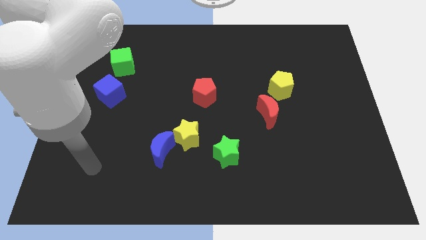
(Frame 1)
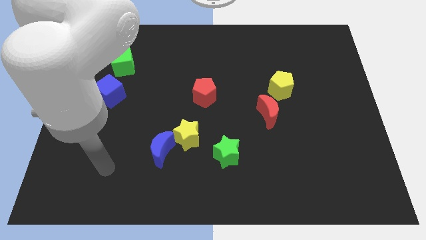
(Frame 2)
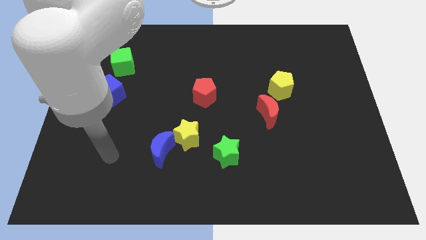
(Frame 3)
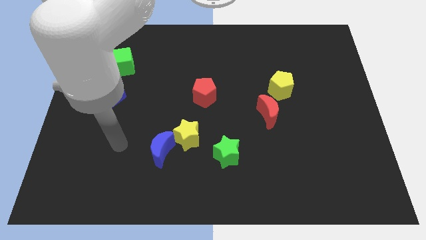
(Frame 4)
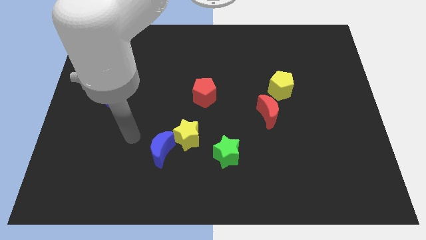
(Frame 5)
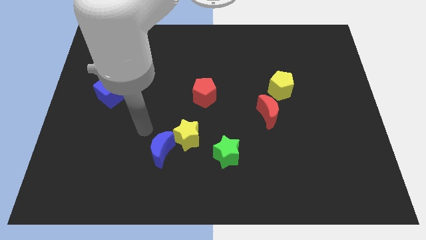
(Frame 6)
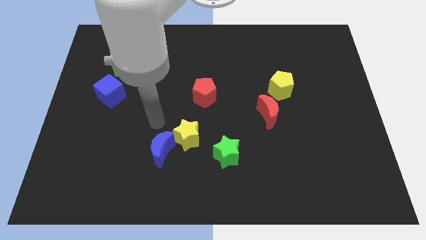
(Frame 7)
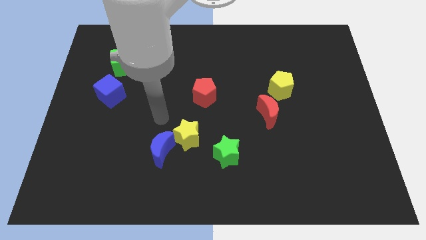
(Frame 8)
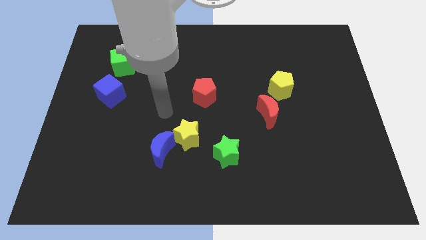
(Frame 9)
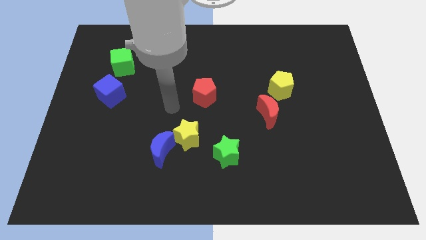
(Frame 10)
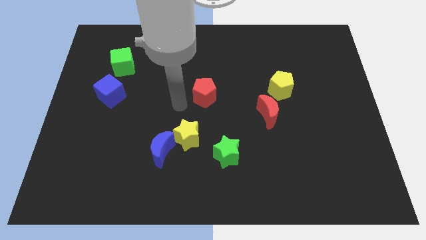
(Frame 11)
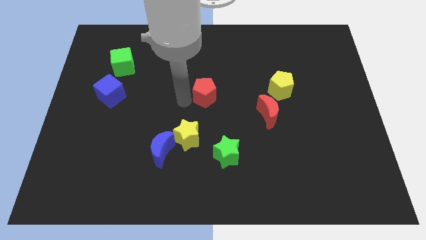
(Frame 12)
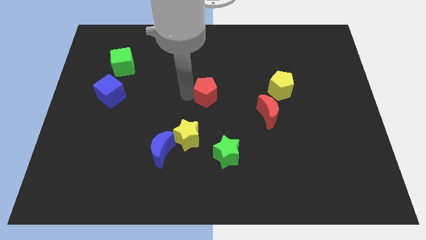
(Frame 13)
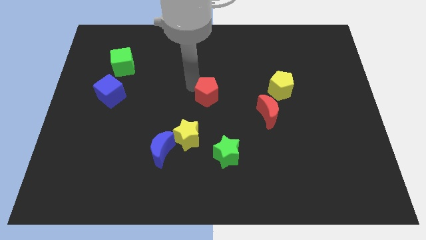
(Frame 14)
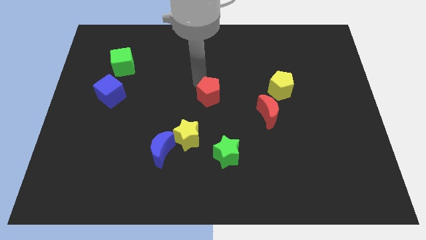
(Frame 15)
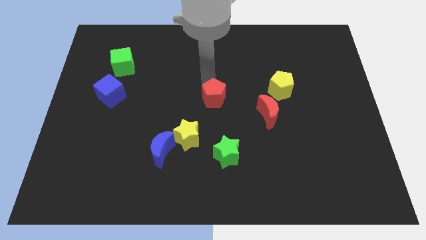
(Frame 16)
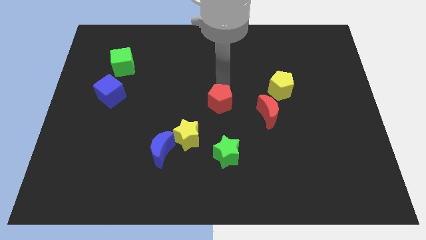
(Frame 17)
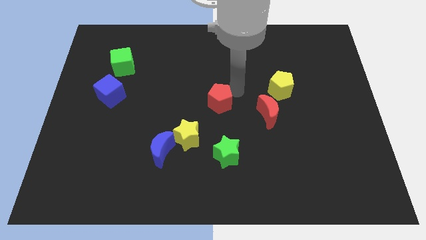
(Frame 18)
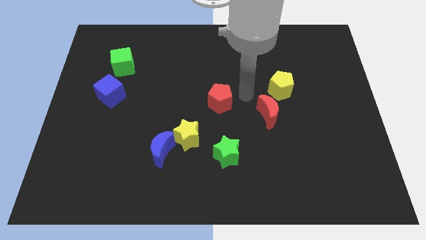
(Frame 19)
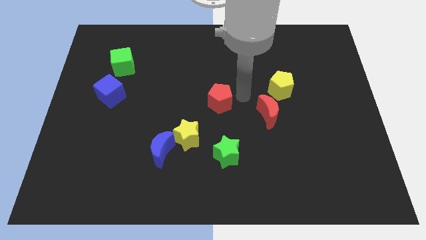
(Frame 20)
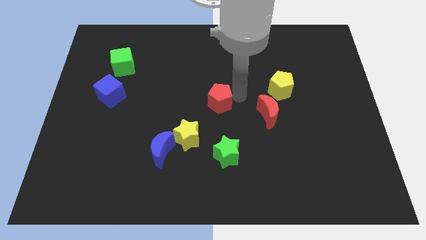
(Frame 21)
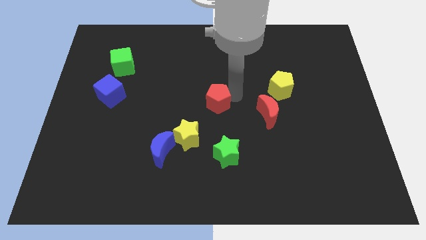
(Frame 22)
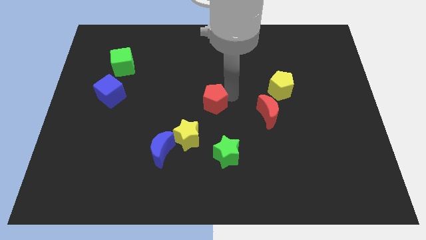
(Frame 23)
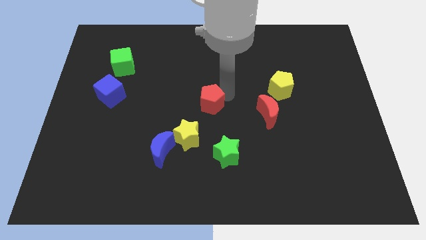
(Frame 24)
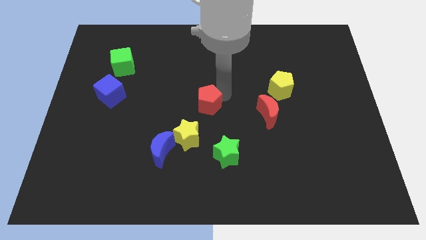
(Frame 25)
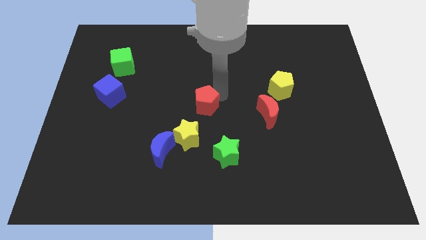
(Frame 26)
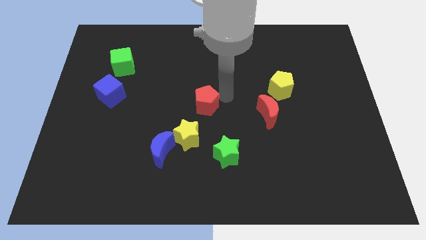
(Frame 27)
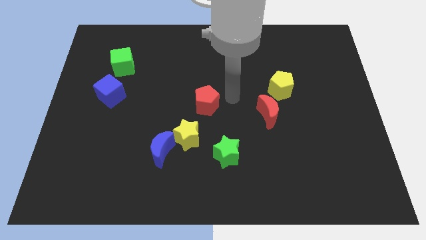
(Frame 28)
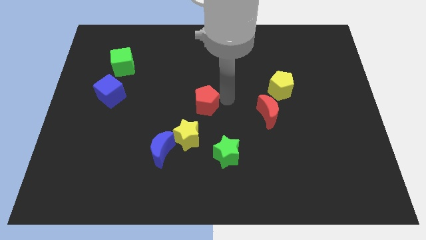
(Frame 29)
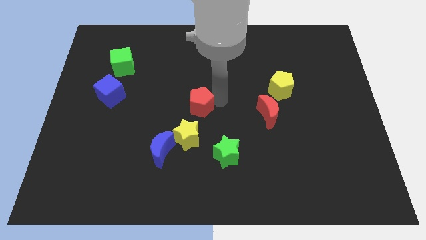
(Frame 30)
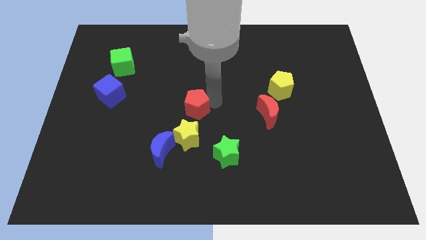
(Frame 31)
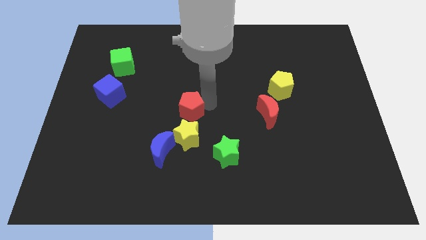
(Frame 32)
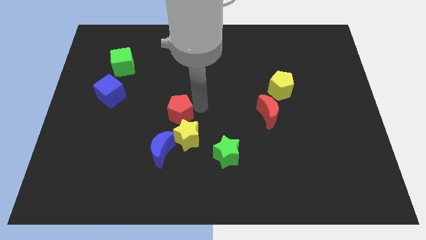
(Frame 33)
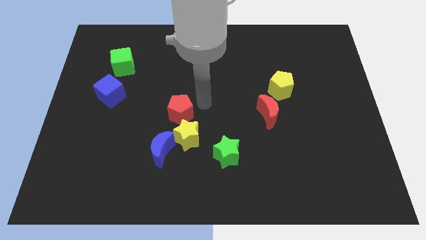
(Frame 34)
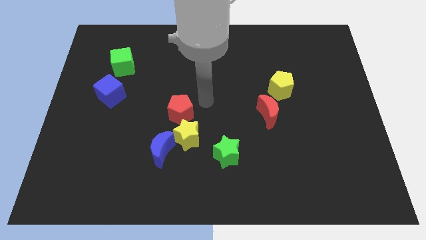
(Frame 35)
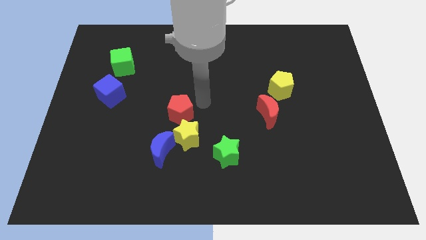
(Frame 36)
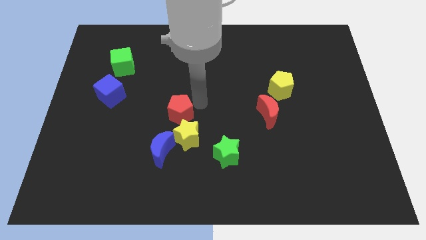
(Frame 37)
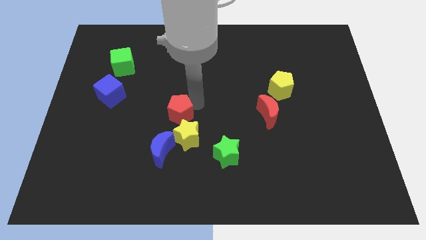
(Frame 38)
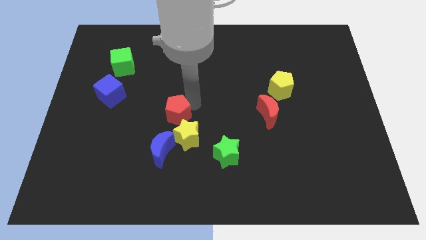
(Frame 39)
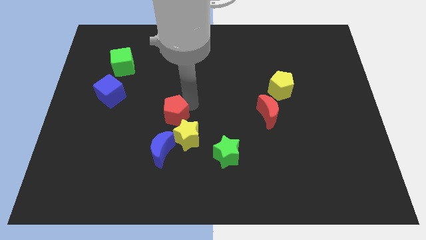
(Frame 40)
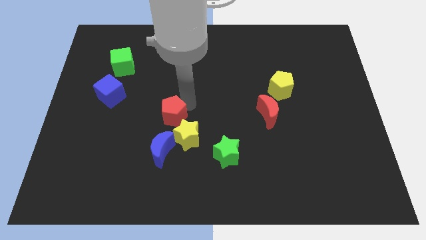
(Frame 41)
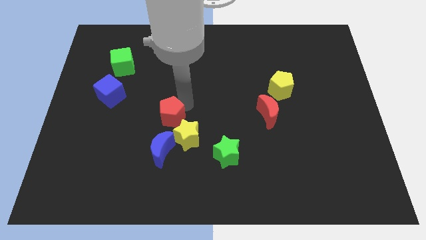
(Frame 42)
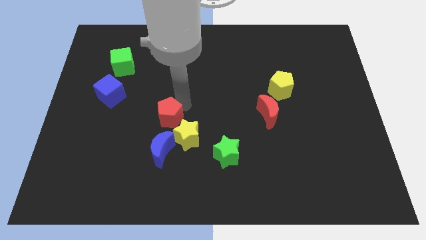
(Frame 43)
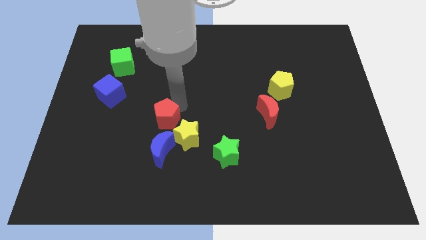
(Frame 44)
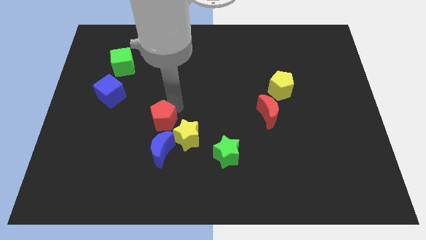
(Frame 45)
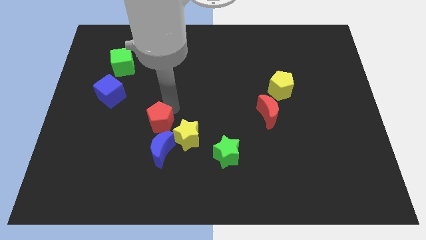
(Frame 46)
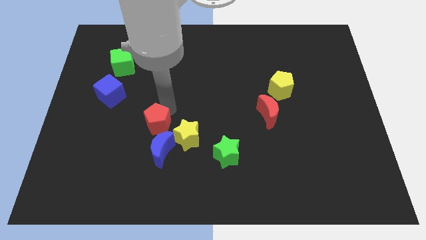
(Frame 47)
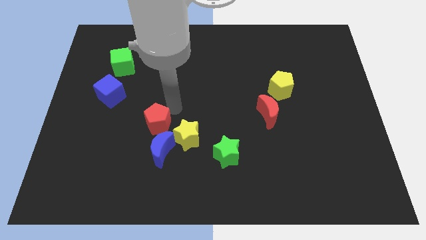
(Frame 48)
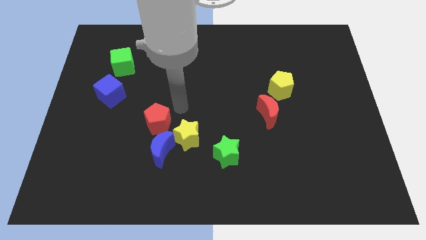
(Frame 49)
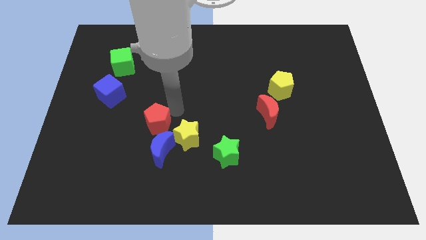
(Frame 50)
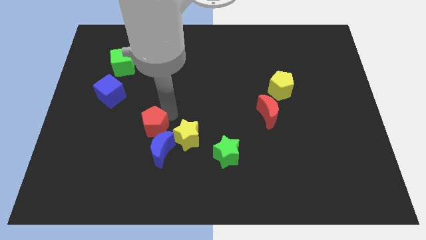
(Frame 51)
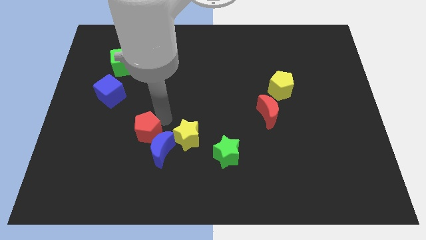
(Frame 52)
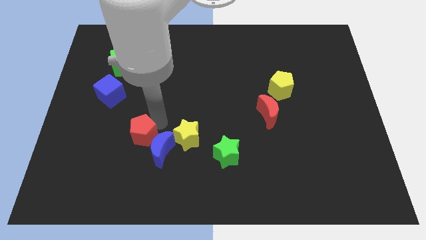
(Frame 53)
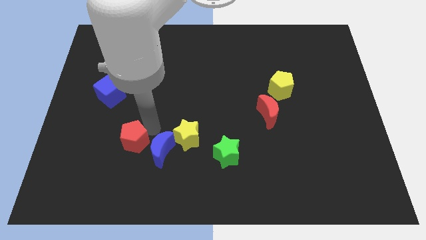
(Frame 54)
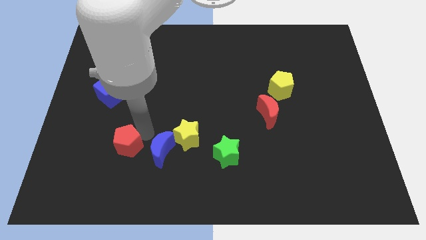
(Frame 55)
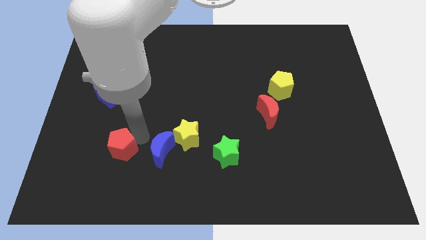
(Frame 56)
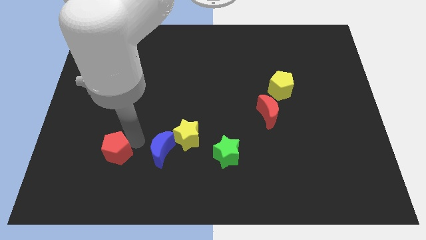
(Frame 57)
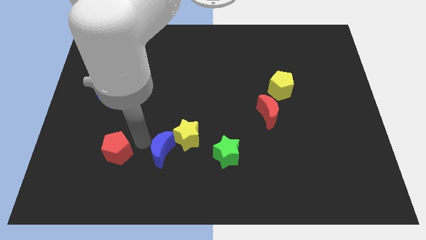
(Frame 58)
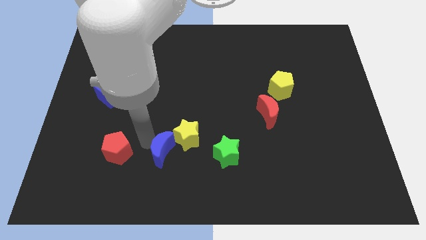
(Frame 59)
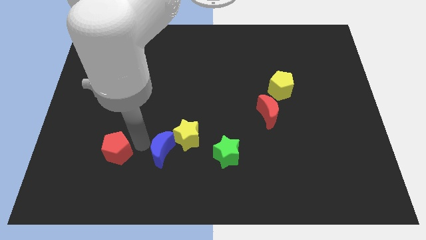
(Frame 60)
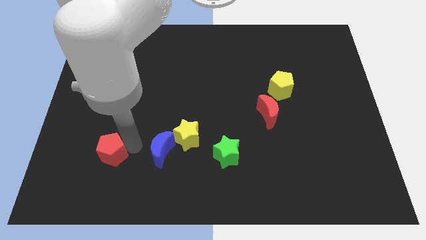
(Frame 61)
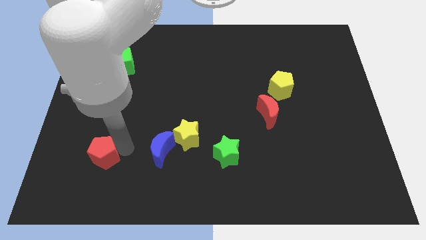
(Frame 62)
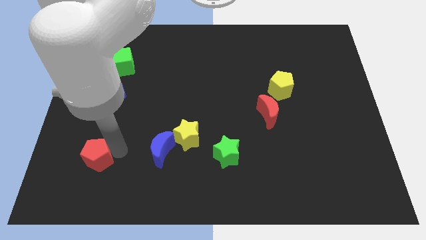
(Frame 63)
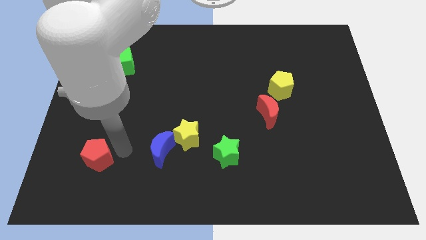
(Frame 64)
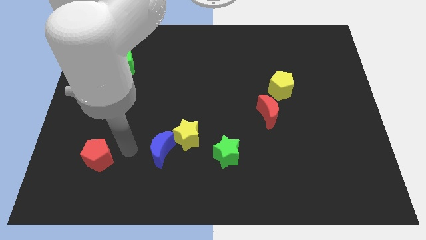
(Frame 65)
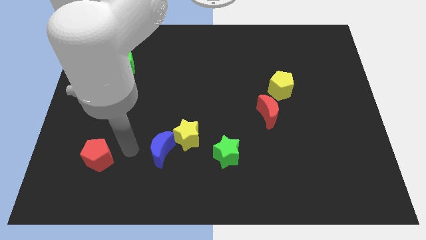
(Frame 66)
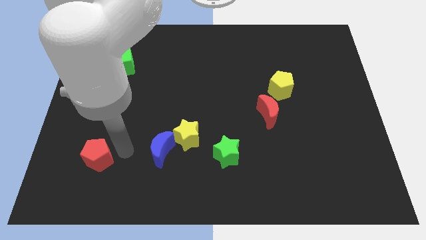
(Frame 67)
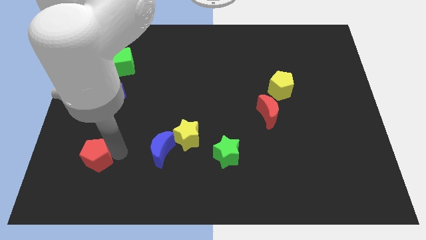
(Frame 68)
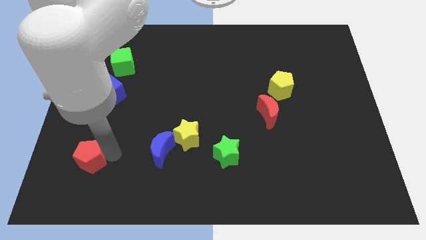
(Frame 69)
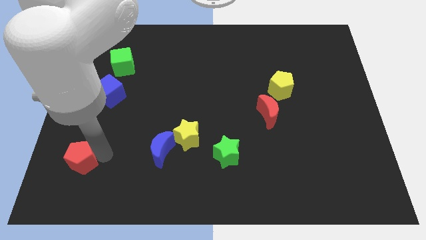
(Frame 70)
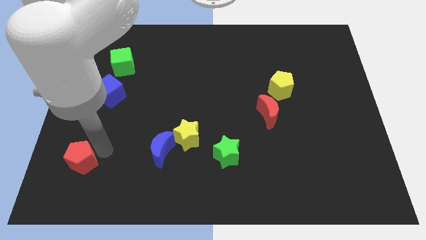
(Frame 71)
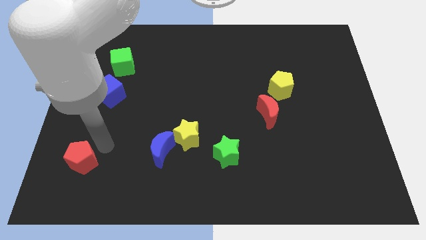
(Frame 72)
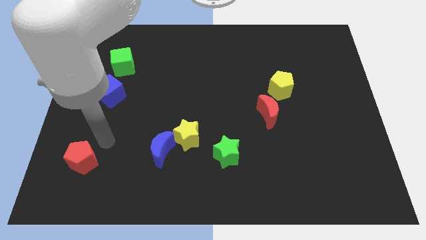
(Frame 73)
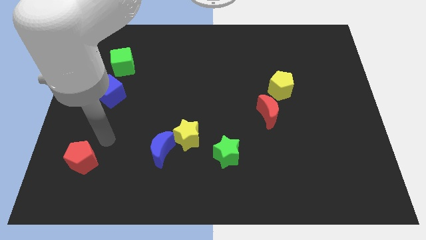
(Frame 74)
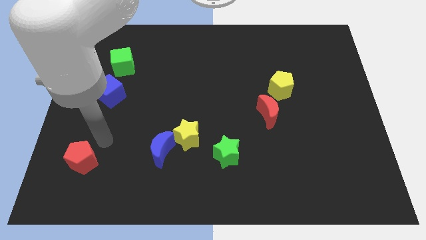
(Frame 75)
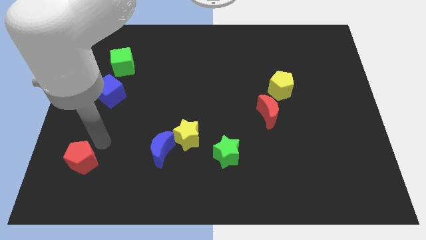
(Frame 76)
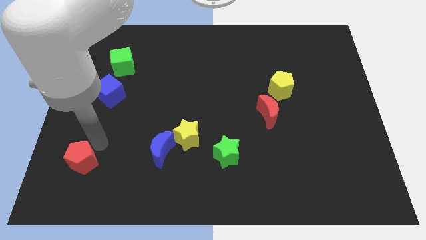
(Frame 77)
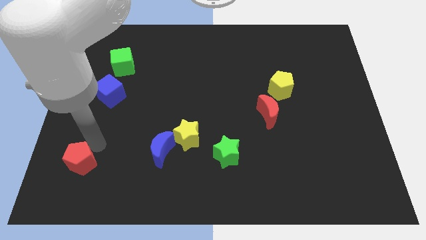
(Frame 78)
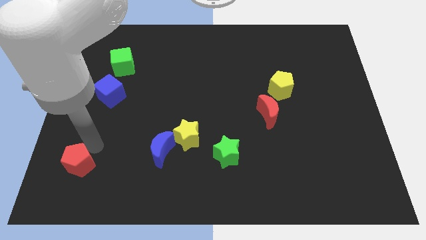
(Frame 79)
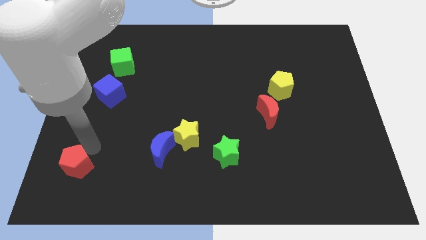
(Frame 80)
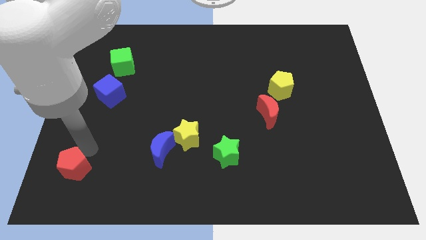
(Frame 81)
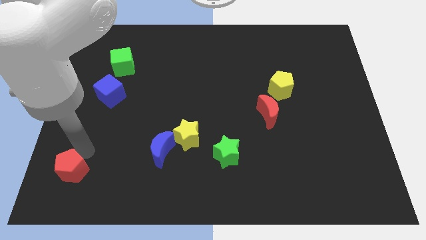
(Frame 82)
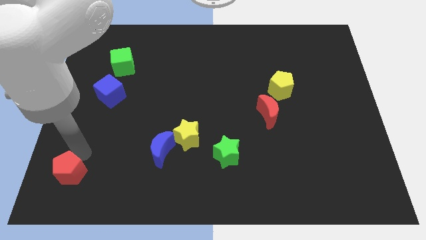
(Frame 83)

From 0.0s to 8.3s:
put the red pentagon to the bottom left
